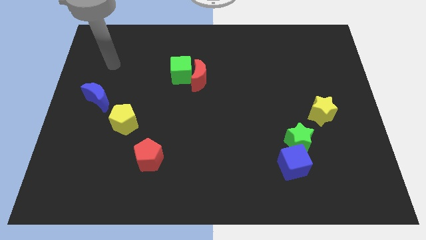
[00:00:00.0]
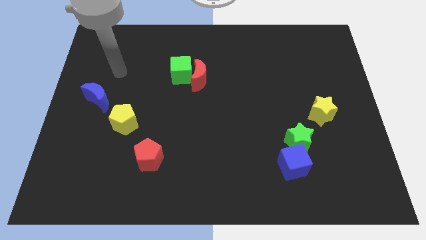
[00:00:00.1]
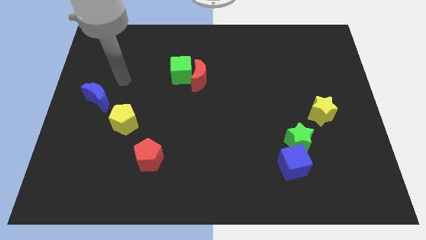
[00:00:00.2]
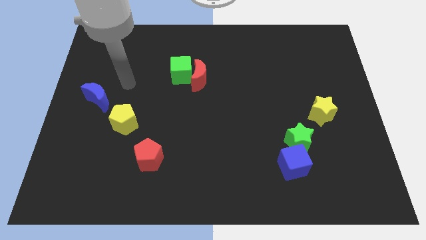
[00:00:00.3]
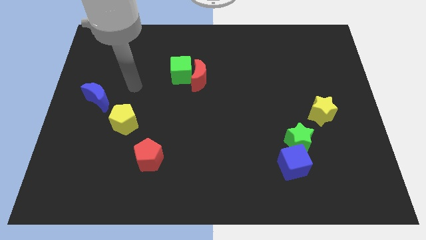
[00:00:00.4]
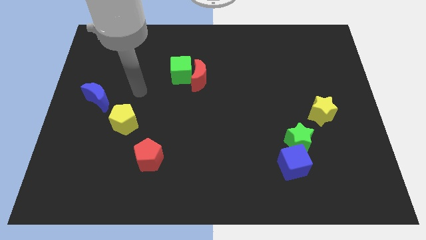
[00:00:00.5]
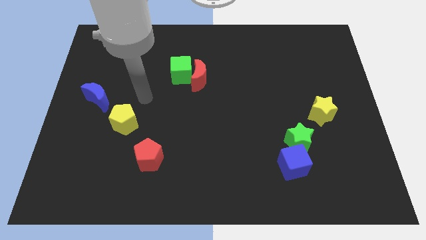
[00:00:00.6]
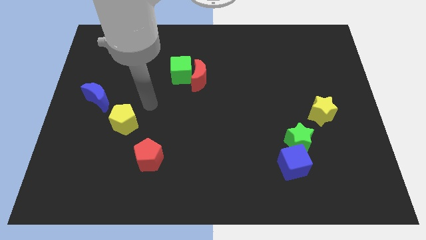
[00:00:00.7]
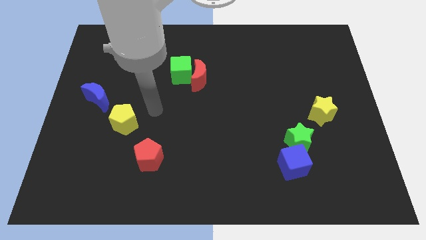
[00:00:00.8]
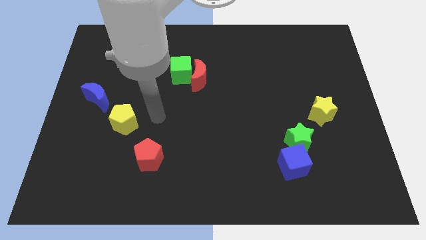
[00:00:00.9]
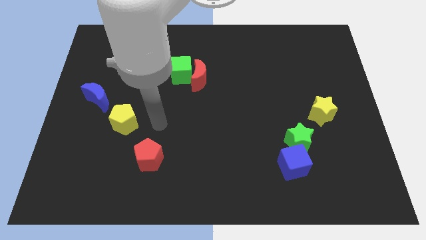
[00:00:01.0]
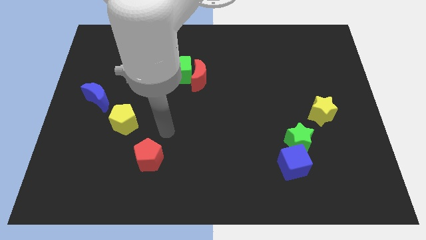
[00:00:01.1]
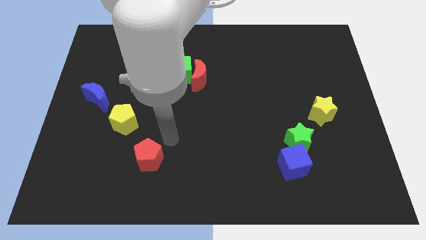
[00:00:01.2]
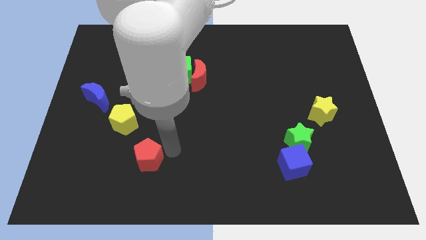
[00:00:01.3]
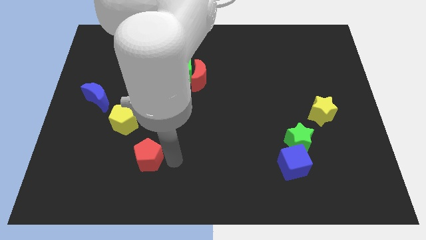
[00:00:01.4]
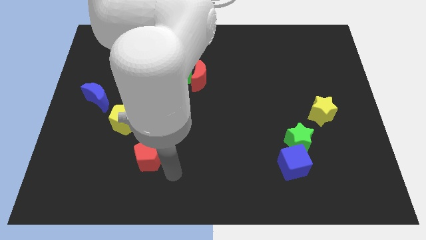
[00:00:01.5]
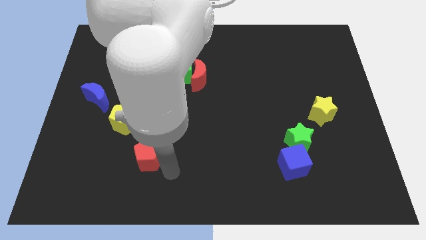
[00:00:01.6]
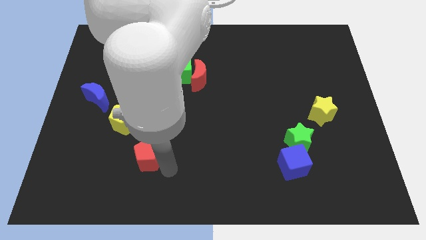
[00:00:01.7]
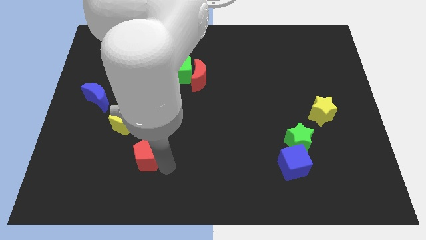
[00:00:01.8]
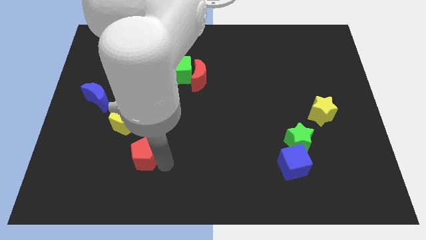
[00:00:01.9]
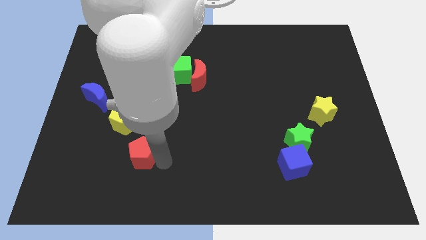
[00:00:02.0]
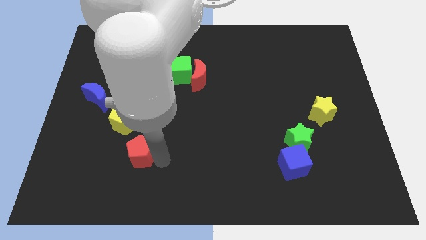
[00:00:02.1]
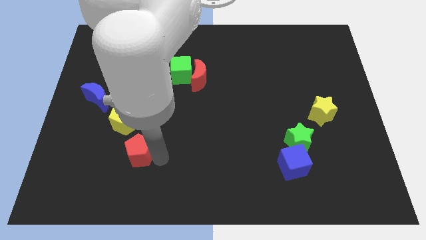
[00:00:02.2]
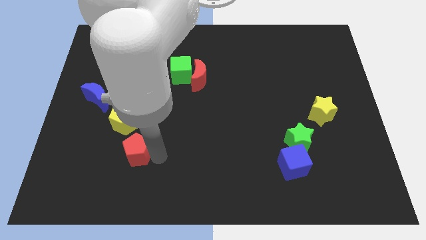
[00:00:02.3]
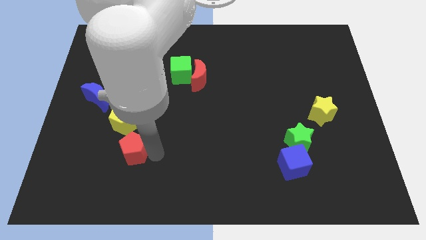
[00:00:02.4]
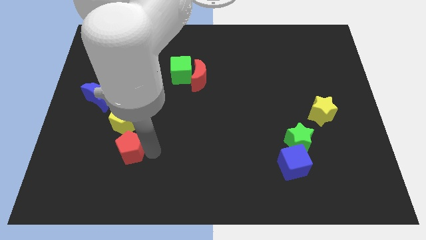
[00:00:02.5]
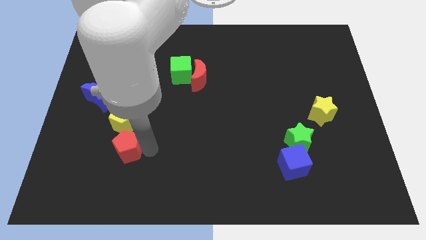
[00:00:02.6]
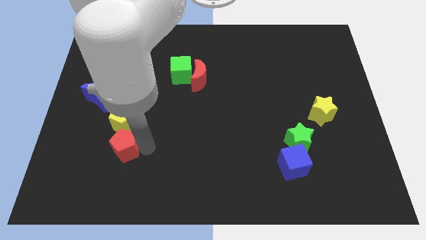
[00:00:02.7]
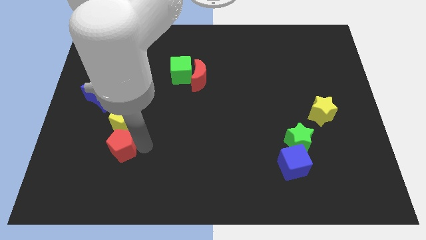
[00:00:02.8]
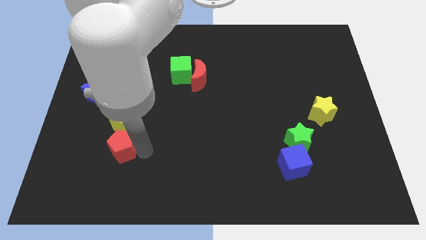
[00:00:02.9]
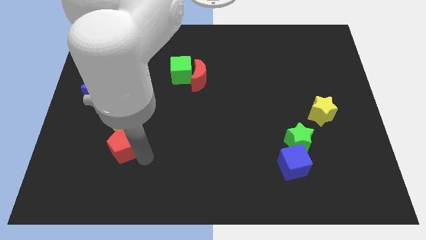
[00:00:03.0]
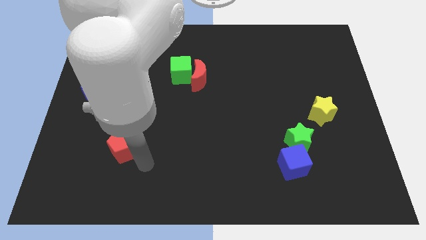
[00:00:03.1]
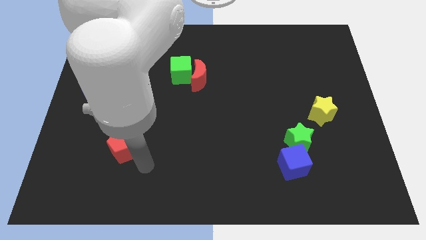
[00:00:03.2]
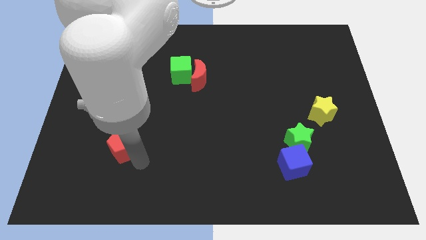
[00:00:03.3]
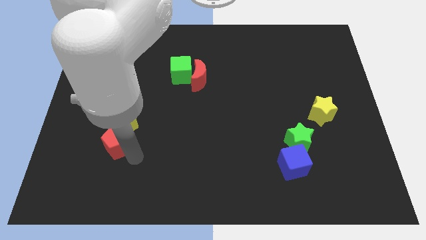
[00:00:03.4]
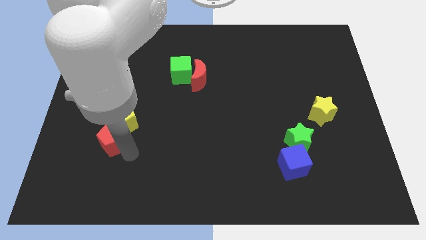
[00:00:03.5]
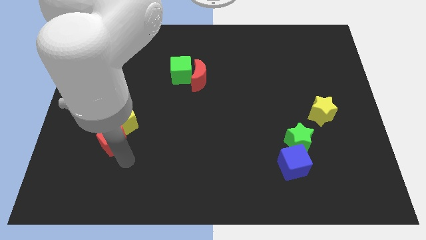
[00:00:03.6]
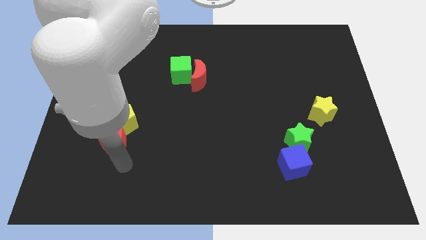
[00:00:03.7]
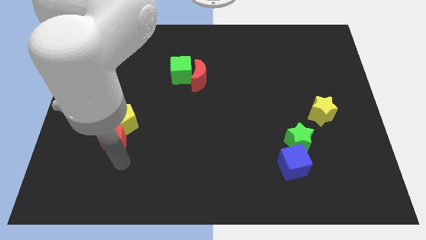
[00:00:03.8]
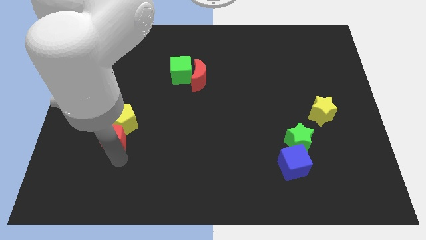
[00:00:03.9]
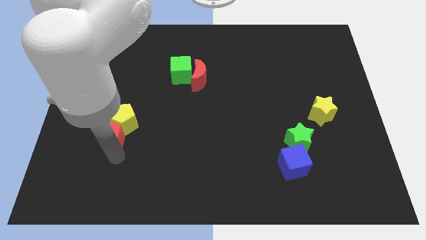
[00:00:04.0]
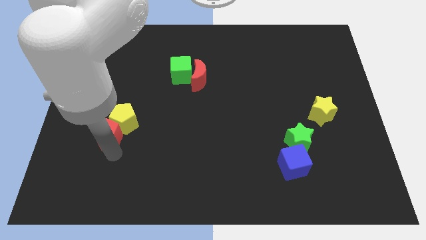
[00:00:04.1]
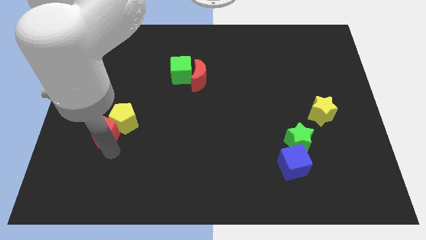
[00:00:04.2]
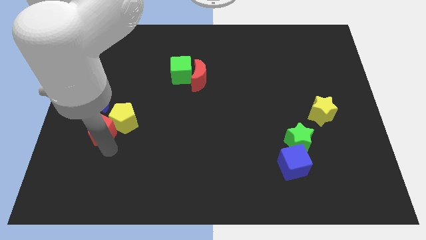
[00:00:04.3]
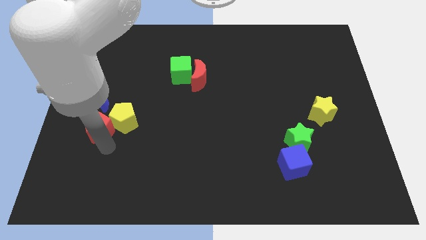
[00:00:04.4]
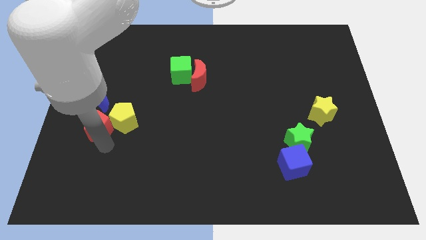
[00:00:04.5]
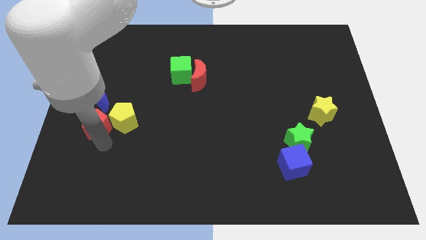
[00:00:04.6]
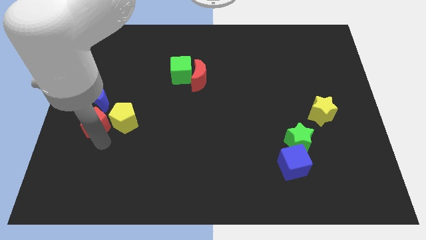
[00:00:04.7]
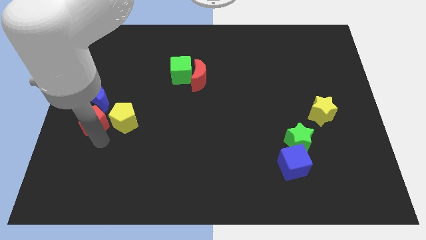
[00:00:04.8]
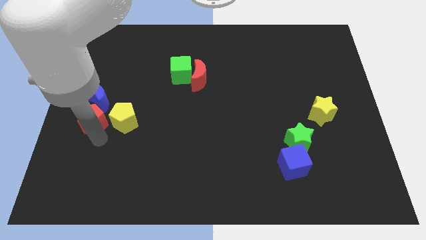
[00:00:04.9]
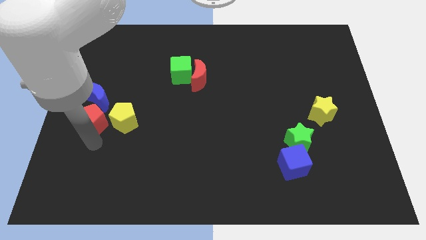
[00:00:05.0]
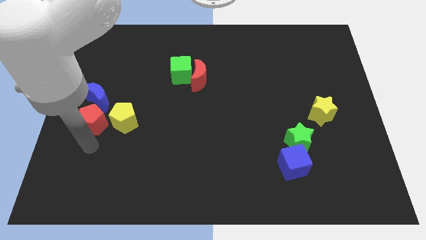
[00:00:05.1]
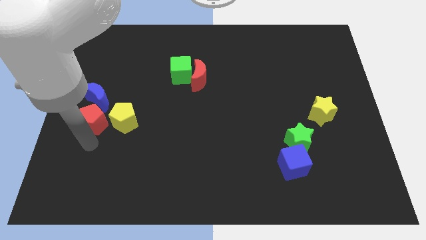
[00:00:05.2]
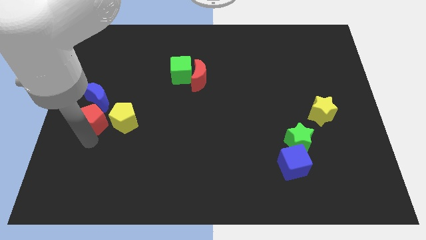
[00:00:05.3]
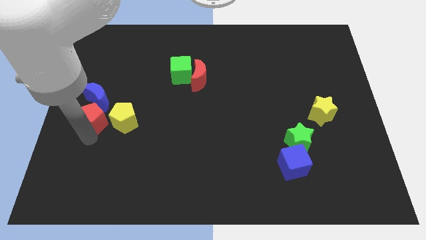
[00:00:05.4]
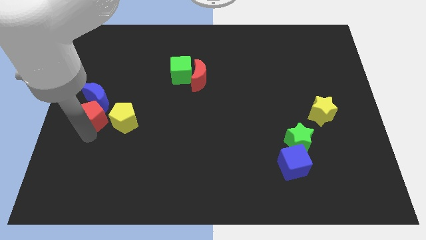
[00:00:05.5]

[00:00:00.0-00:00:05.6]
put the red pentagon next to the blue moon

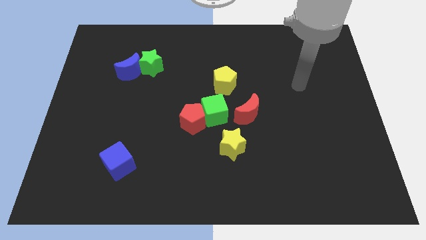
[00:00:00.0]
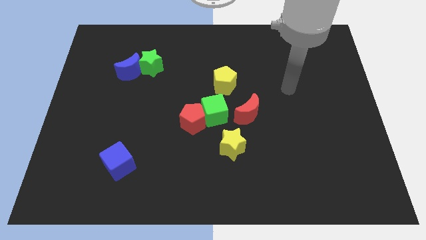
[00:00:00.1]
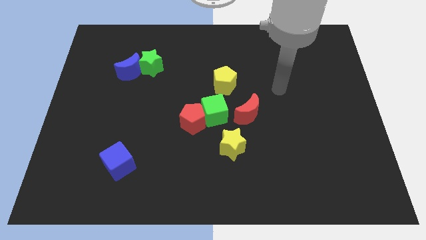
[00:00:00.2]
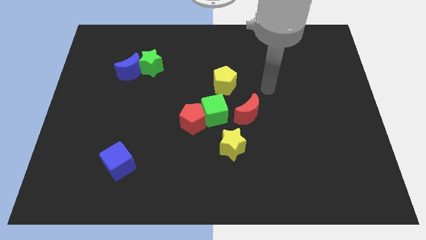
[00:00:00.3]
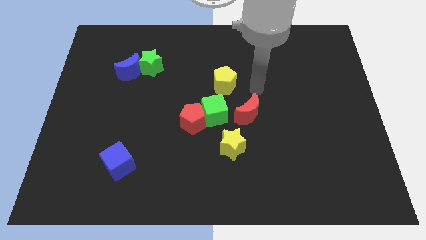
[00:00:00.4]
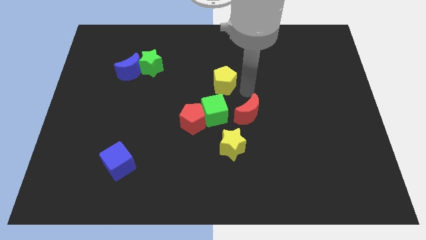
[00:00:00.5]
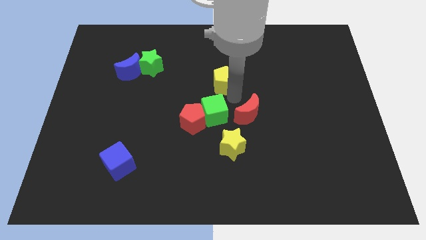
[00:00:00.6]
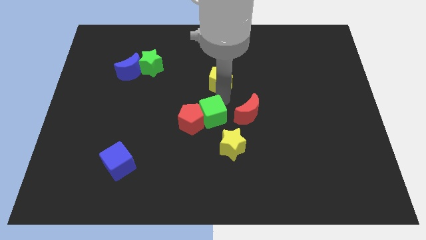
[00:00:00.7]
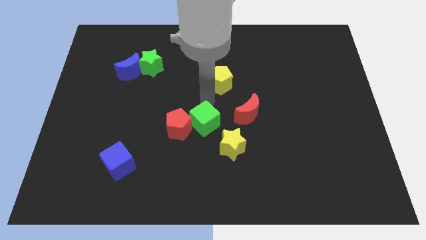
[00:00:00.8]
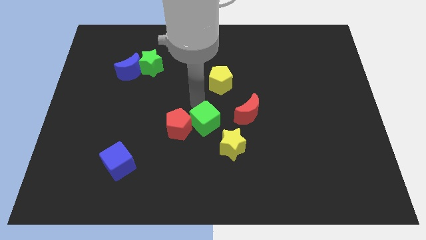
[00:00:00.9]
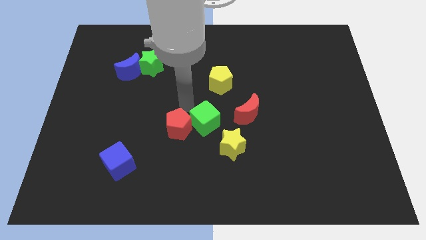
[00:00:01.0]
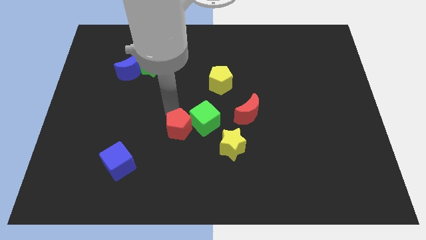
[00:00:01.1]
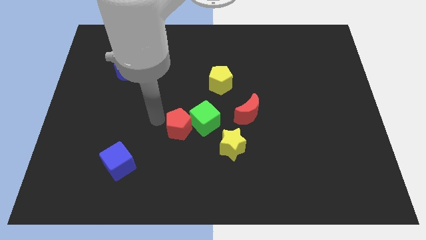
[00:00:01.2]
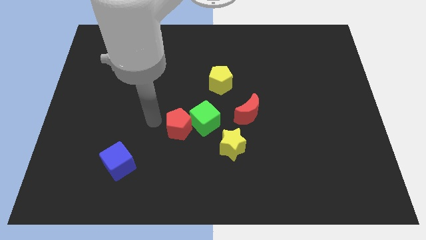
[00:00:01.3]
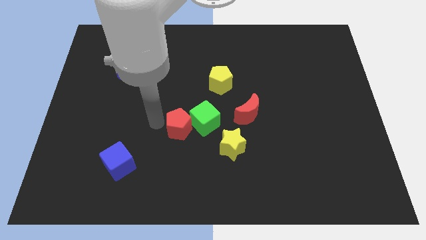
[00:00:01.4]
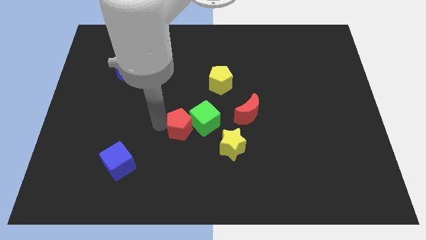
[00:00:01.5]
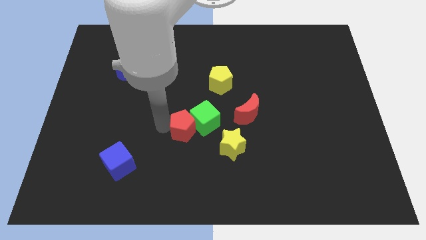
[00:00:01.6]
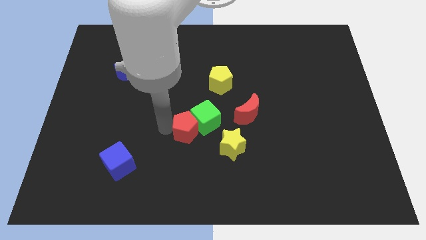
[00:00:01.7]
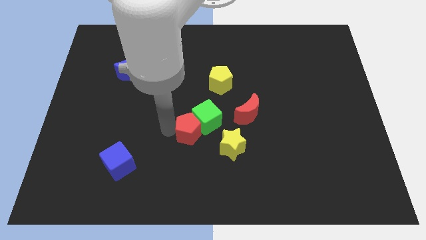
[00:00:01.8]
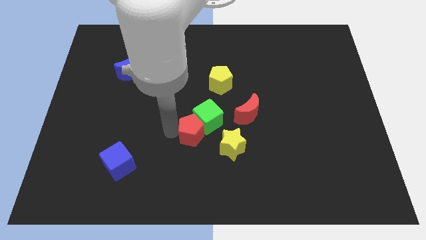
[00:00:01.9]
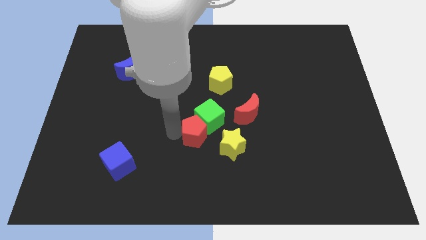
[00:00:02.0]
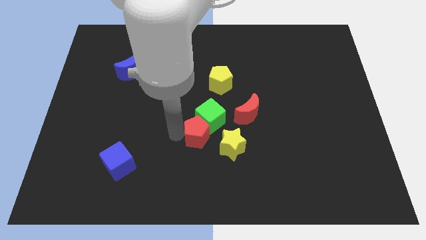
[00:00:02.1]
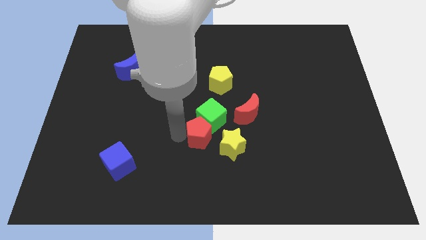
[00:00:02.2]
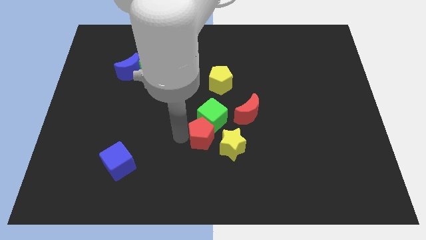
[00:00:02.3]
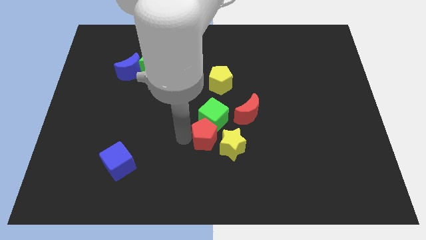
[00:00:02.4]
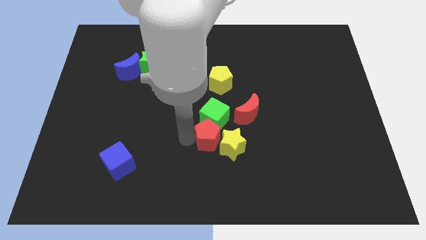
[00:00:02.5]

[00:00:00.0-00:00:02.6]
push the red pentagon to the yellow star
